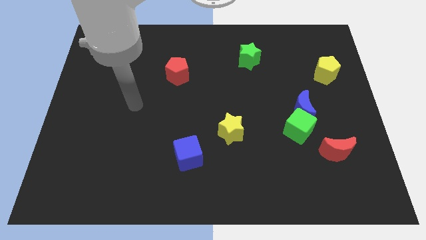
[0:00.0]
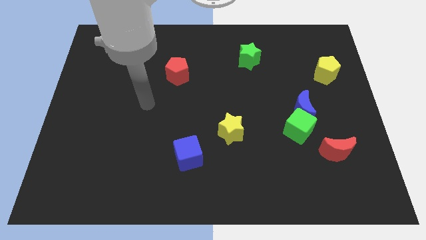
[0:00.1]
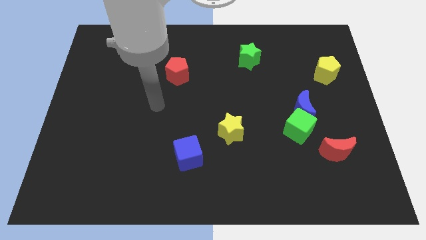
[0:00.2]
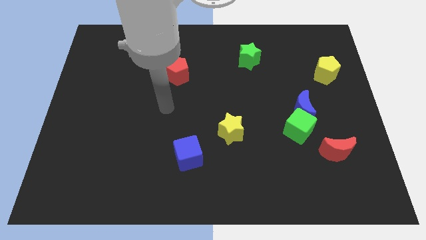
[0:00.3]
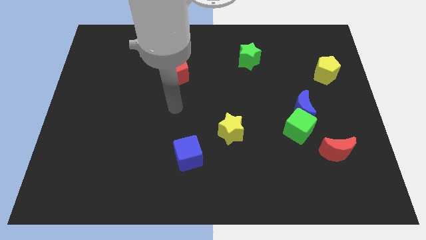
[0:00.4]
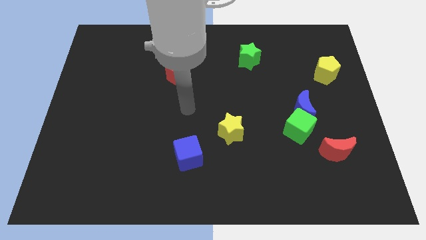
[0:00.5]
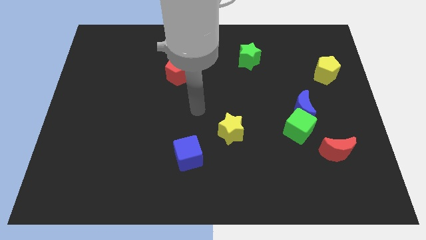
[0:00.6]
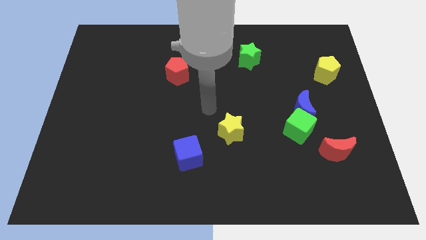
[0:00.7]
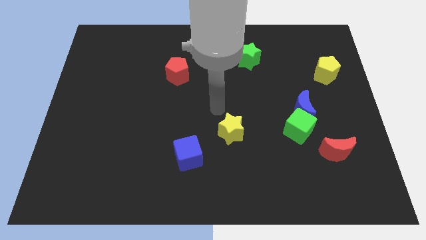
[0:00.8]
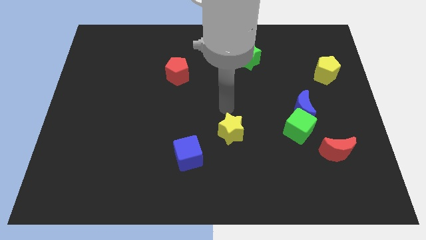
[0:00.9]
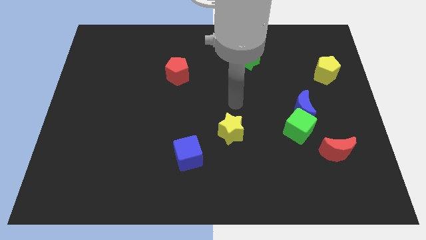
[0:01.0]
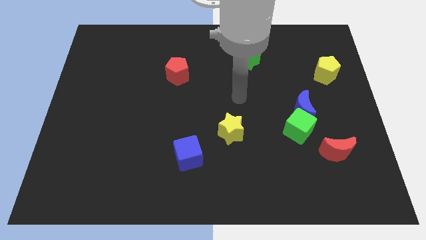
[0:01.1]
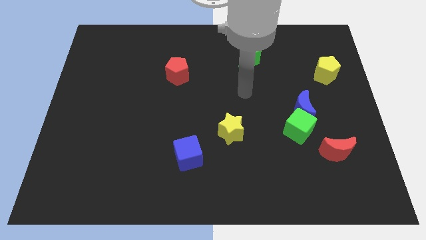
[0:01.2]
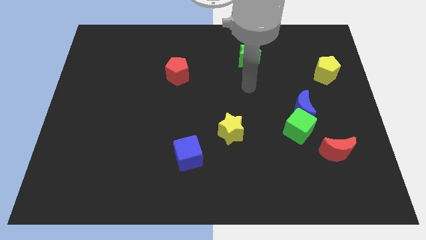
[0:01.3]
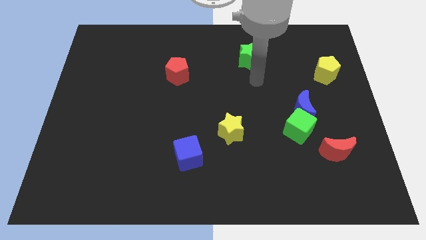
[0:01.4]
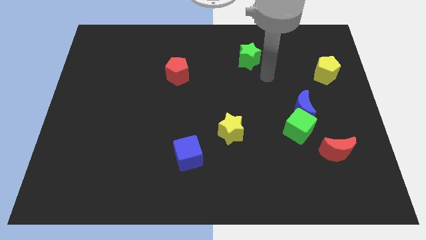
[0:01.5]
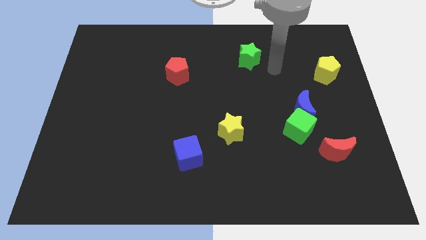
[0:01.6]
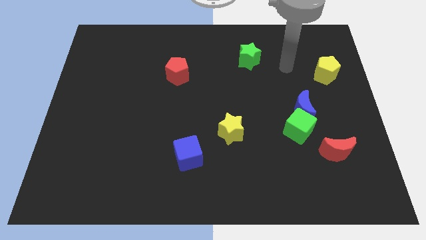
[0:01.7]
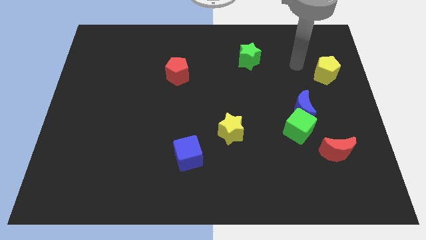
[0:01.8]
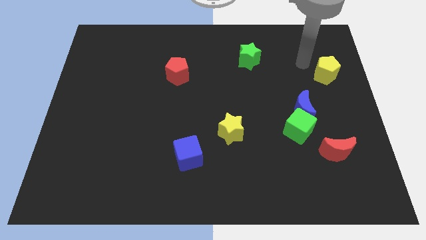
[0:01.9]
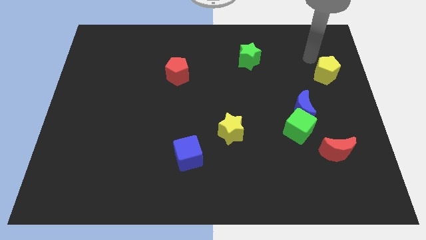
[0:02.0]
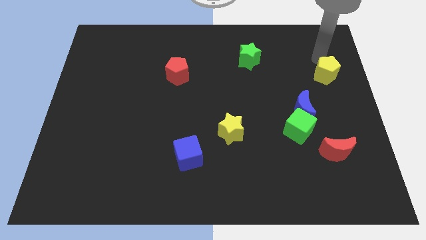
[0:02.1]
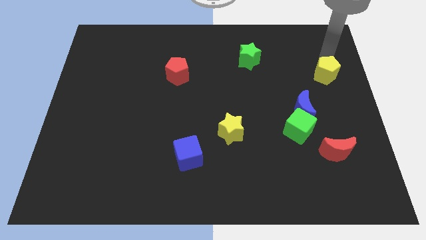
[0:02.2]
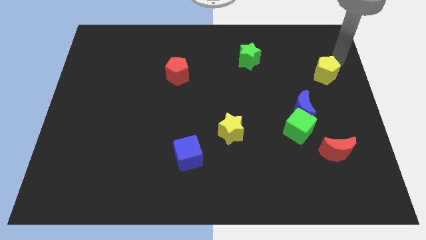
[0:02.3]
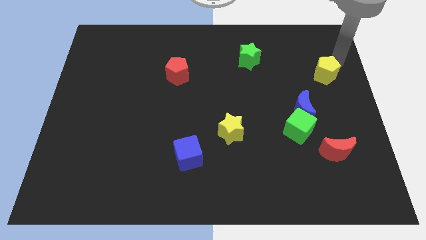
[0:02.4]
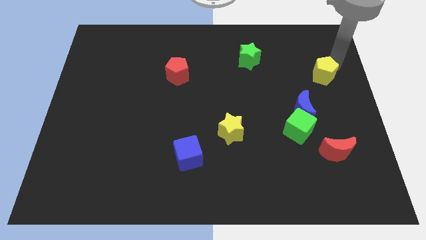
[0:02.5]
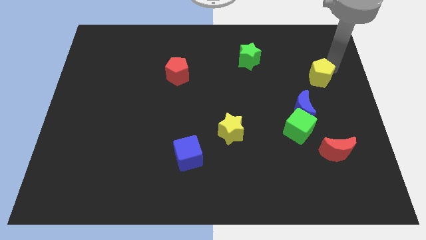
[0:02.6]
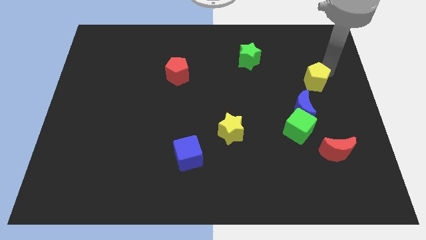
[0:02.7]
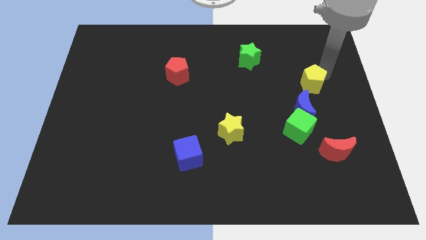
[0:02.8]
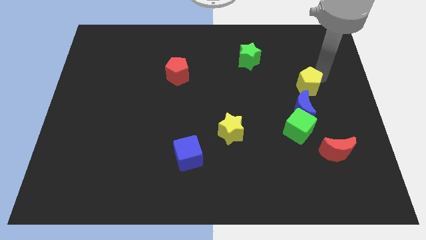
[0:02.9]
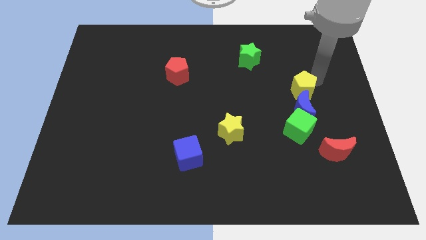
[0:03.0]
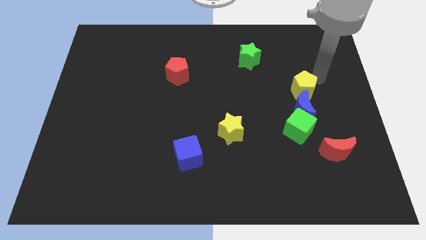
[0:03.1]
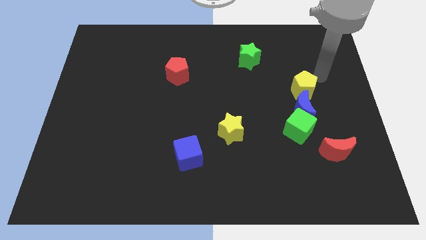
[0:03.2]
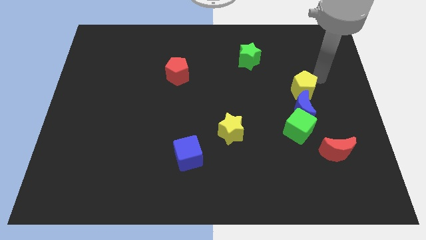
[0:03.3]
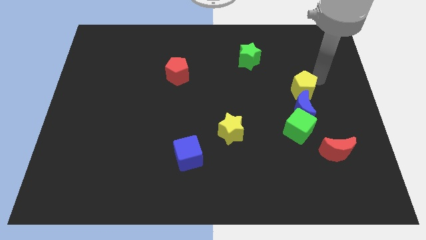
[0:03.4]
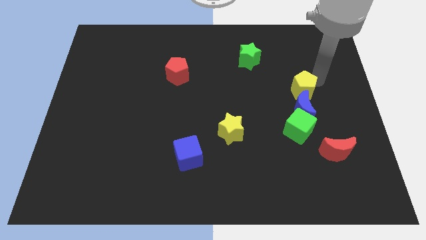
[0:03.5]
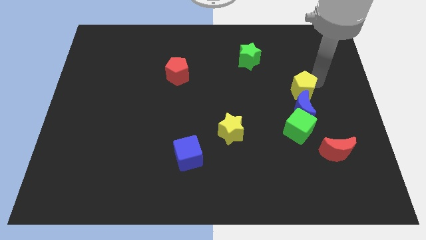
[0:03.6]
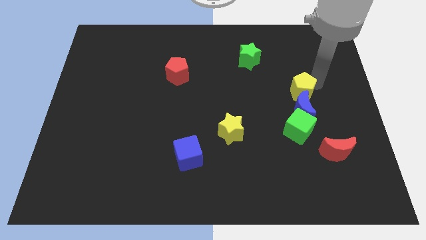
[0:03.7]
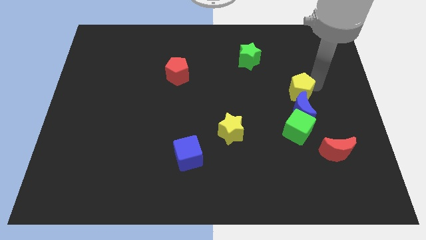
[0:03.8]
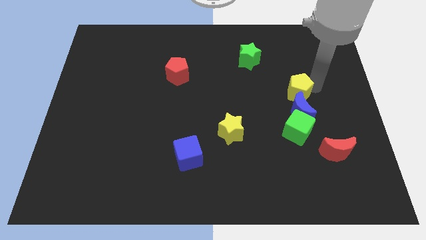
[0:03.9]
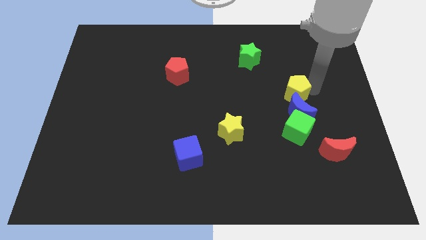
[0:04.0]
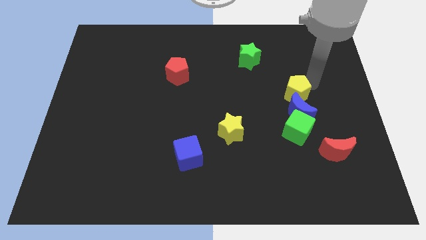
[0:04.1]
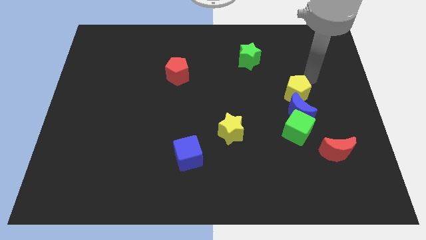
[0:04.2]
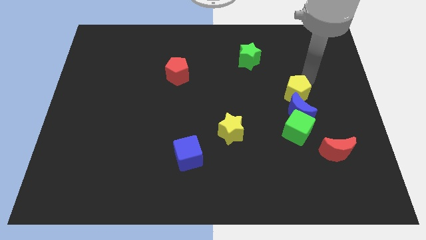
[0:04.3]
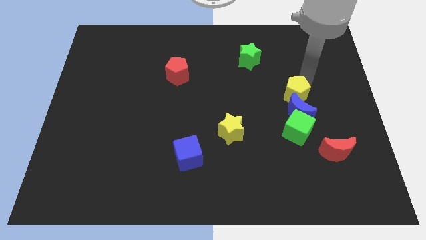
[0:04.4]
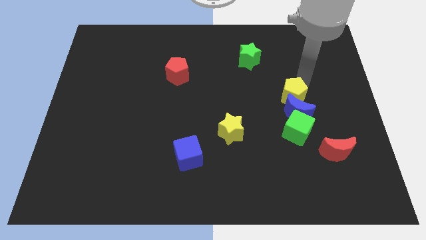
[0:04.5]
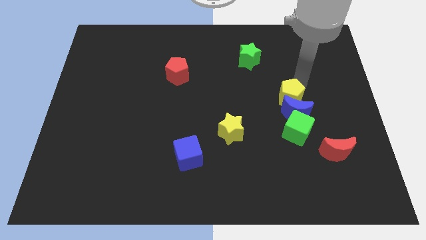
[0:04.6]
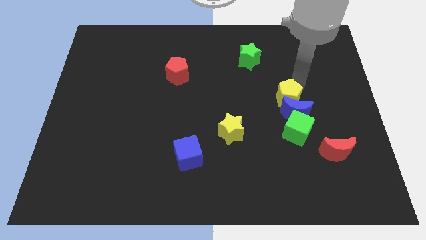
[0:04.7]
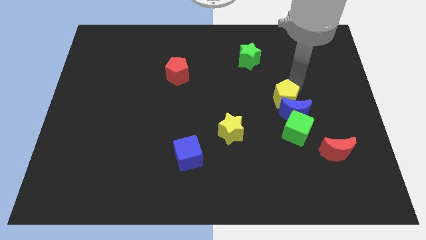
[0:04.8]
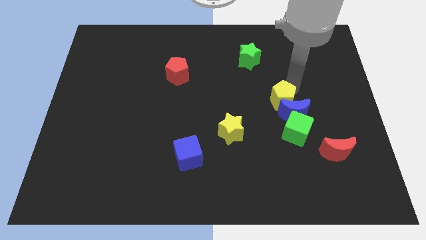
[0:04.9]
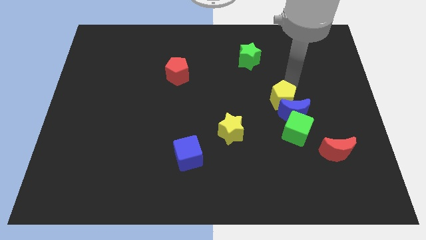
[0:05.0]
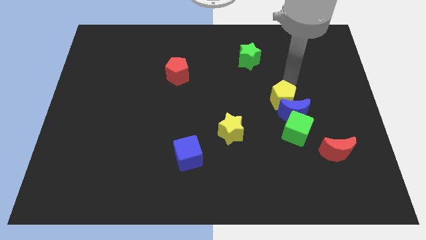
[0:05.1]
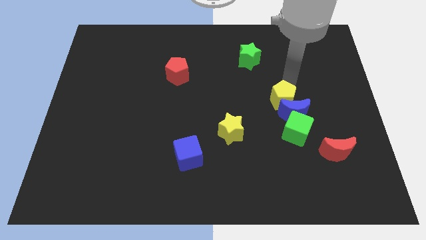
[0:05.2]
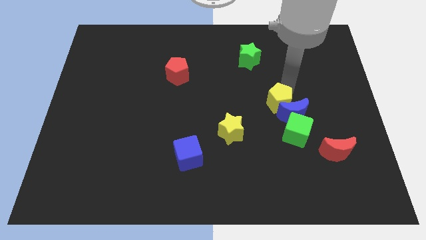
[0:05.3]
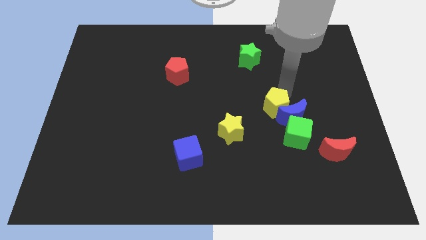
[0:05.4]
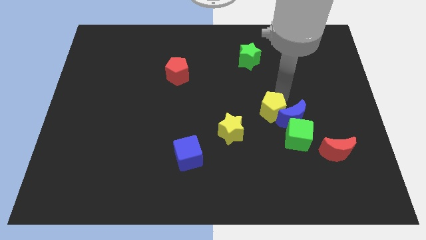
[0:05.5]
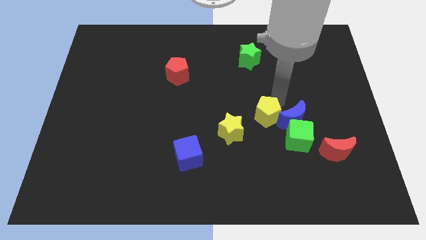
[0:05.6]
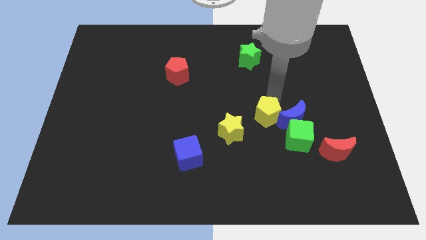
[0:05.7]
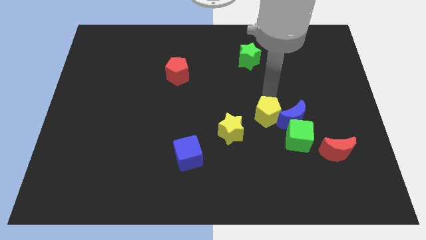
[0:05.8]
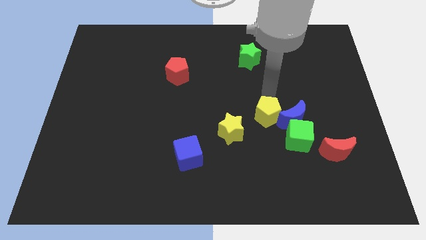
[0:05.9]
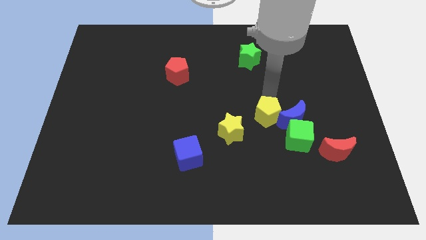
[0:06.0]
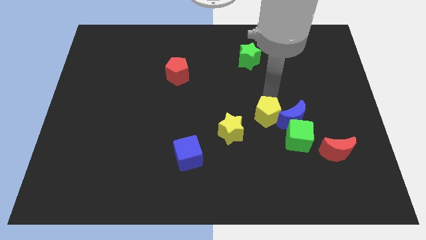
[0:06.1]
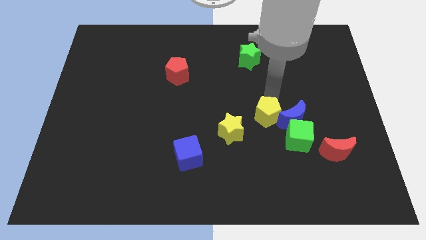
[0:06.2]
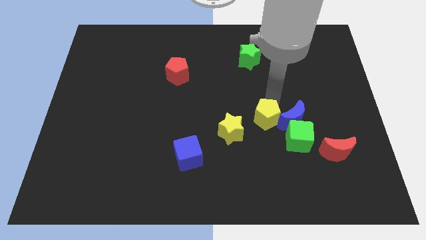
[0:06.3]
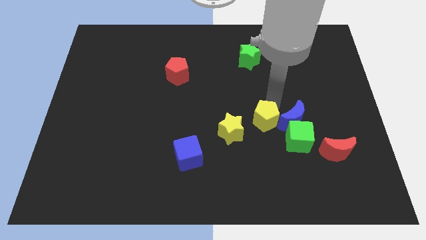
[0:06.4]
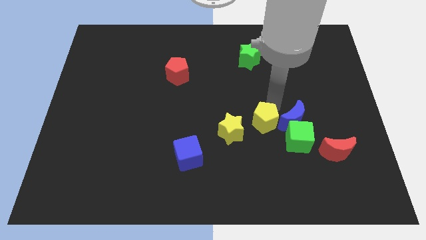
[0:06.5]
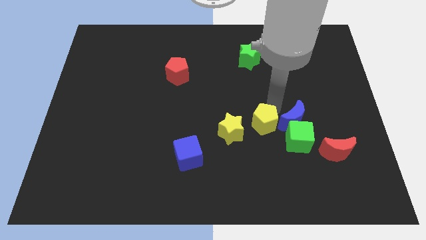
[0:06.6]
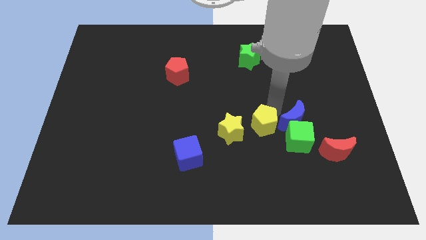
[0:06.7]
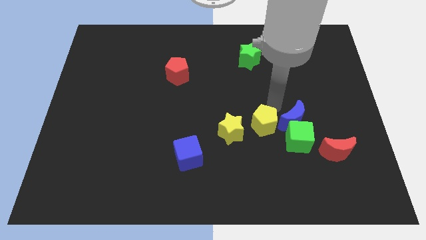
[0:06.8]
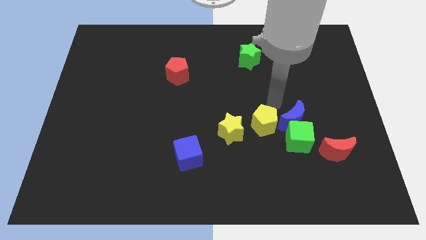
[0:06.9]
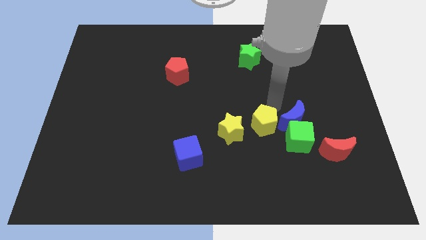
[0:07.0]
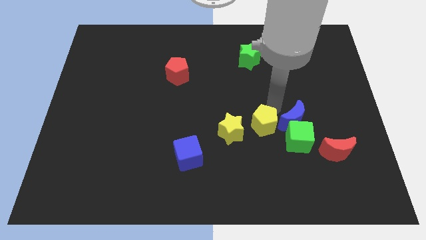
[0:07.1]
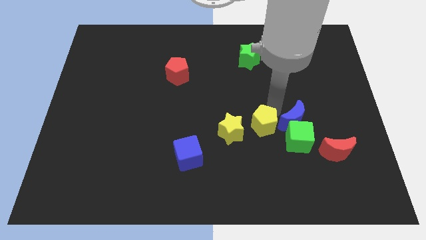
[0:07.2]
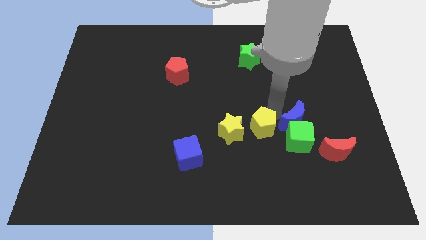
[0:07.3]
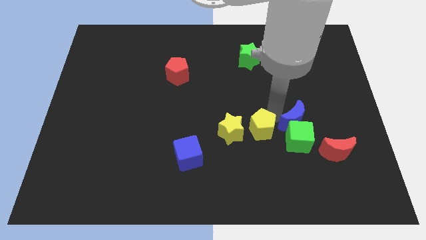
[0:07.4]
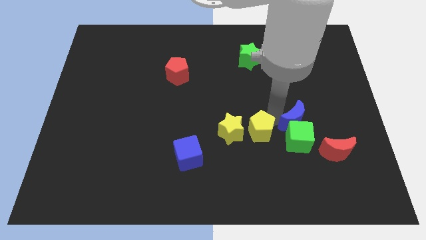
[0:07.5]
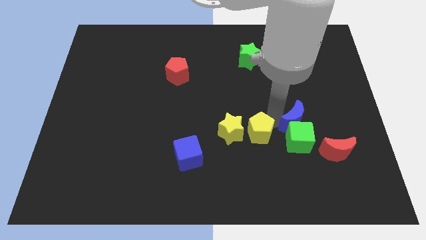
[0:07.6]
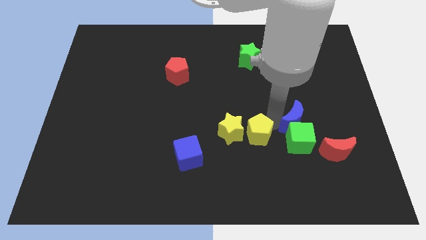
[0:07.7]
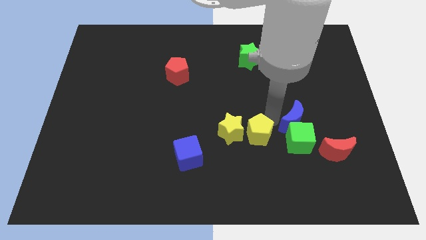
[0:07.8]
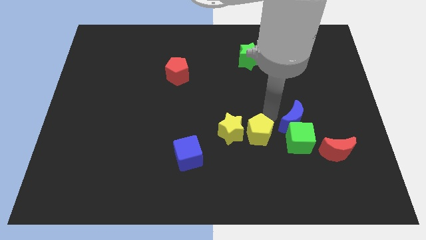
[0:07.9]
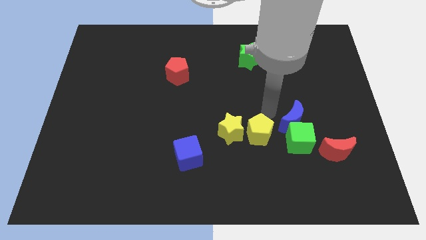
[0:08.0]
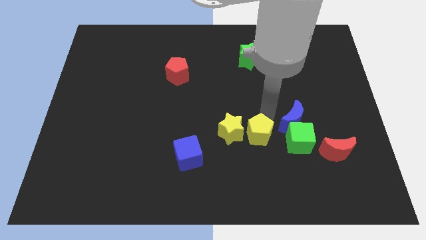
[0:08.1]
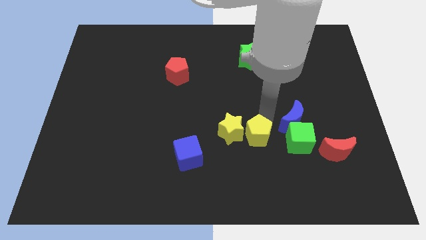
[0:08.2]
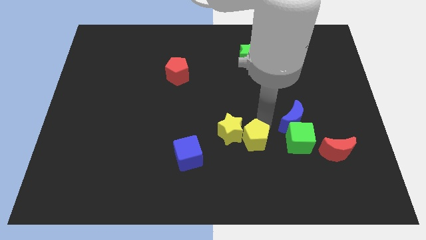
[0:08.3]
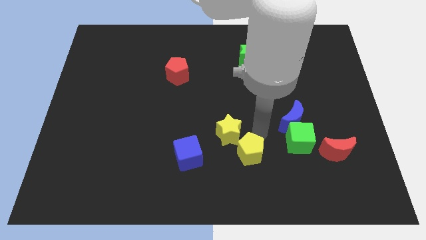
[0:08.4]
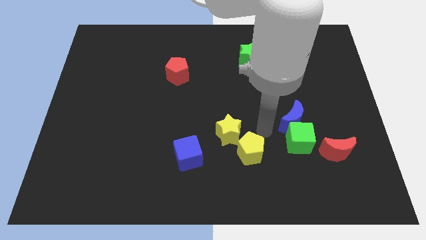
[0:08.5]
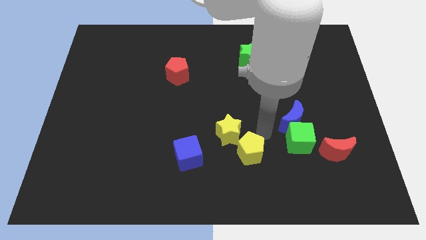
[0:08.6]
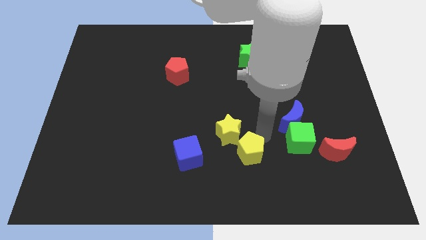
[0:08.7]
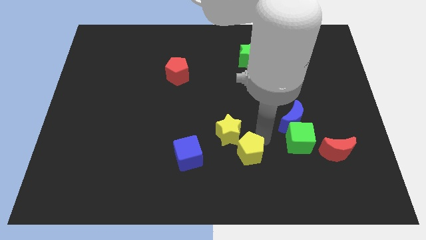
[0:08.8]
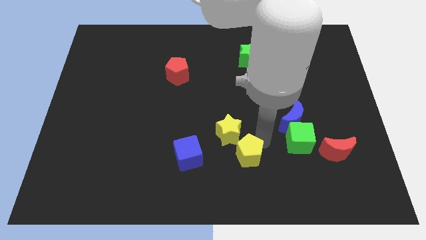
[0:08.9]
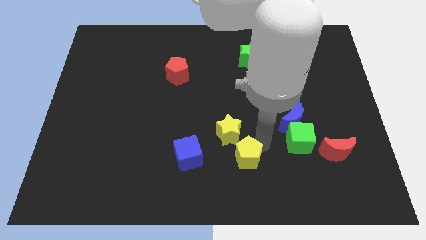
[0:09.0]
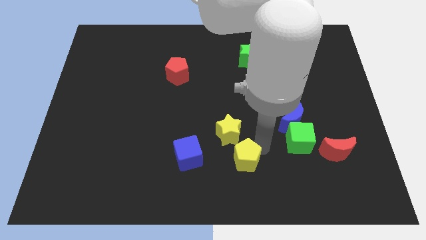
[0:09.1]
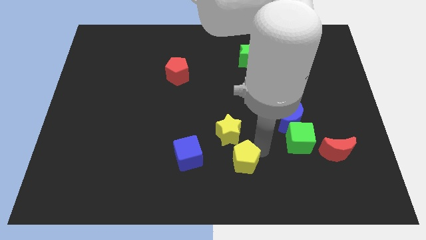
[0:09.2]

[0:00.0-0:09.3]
push the yellow pentagon to the bottom
